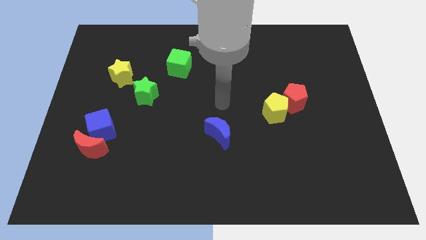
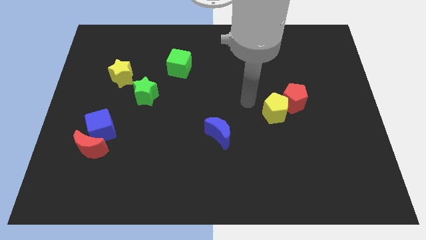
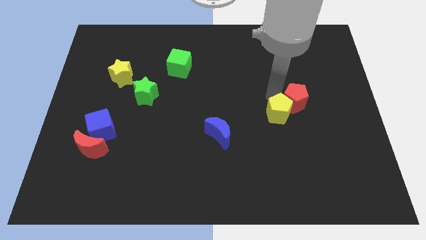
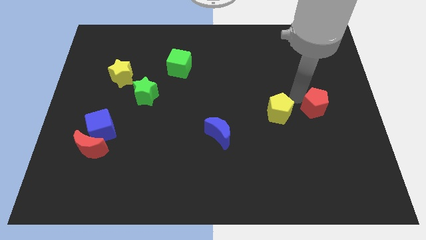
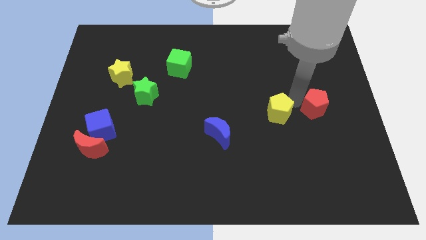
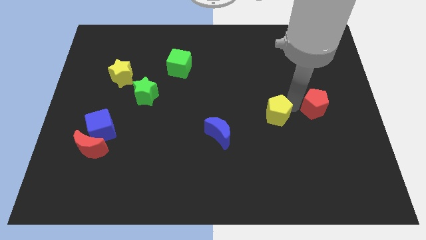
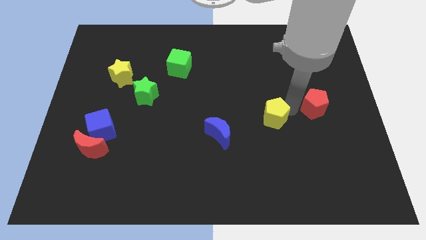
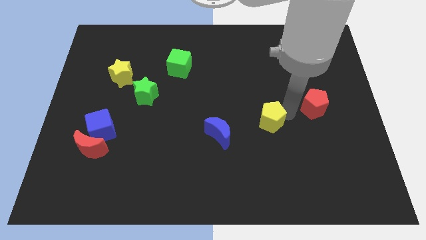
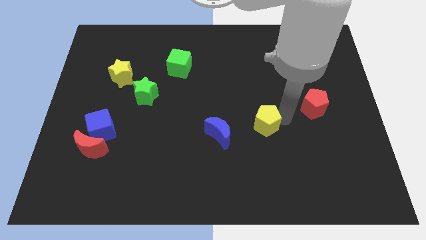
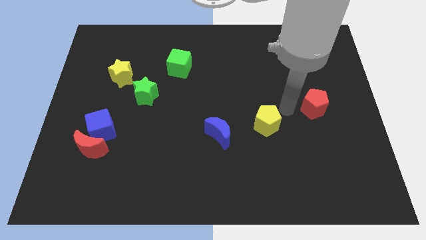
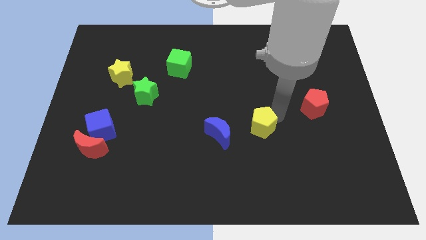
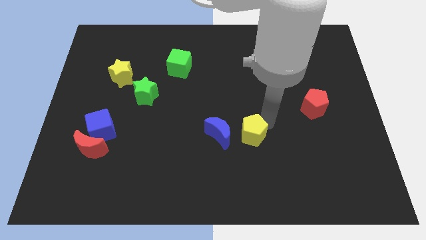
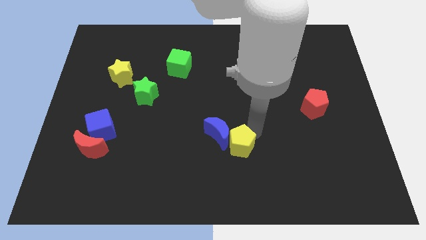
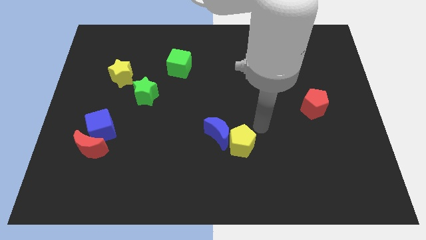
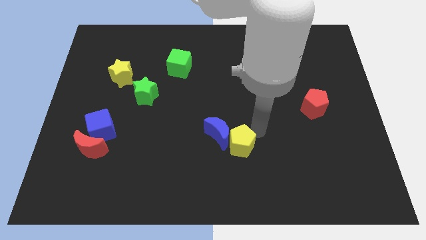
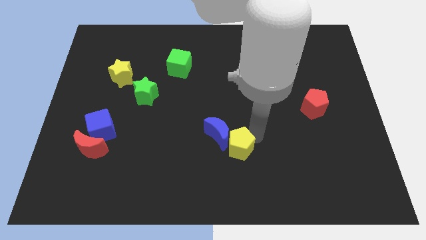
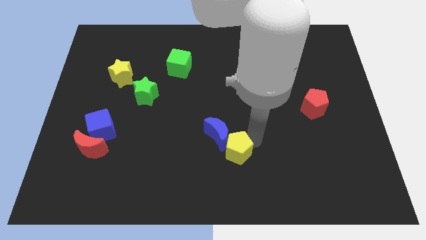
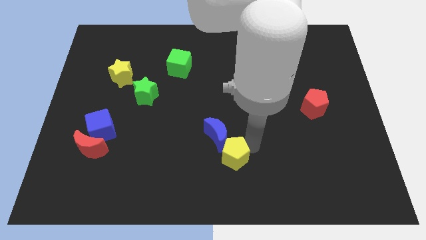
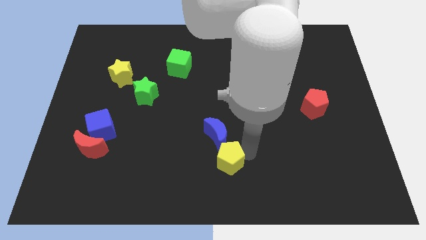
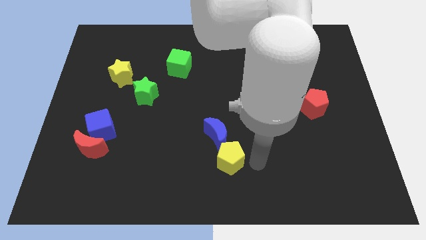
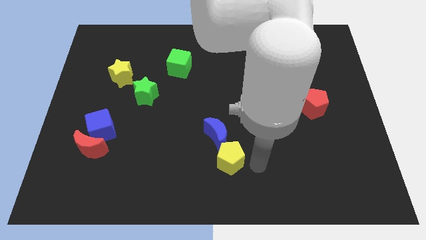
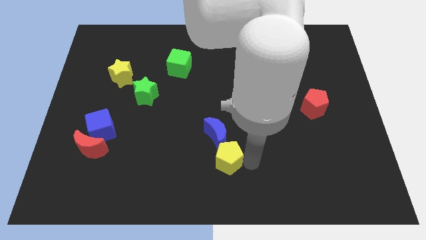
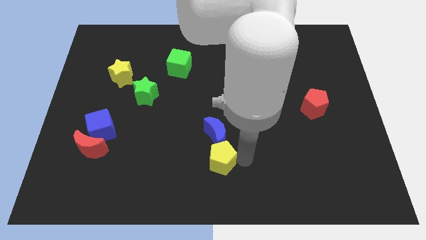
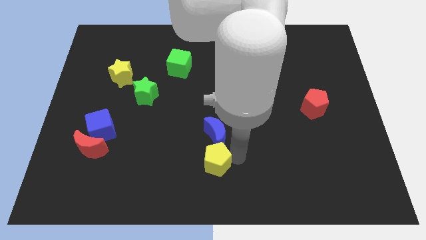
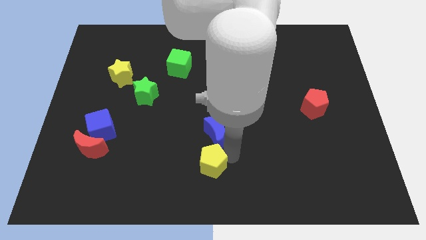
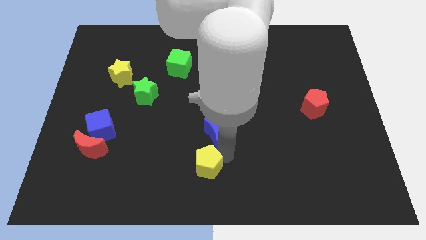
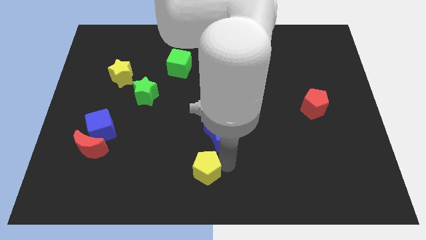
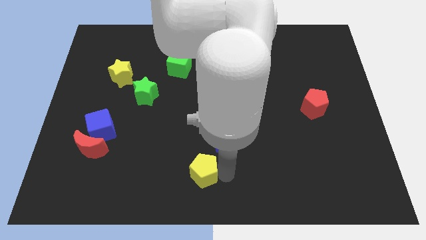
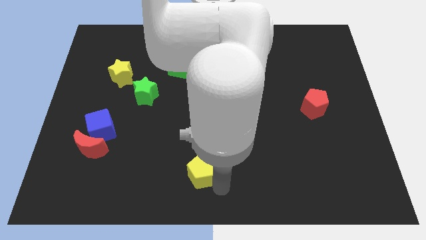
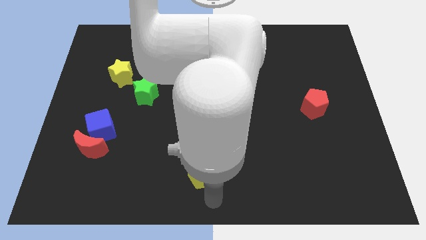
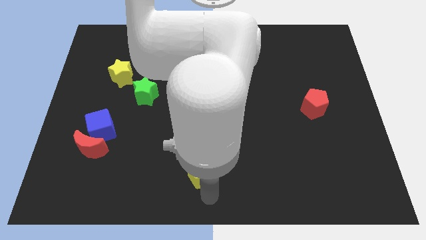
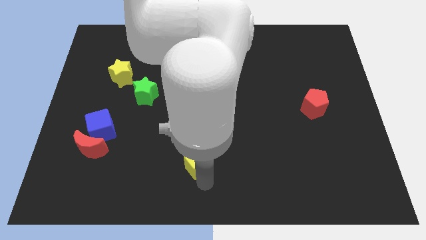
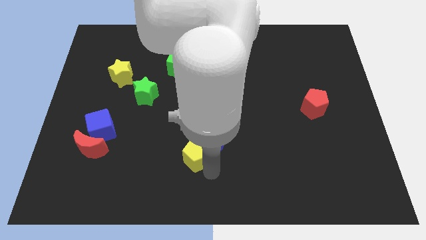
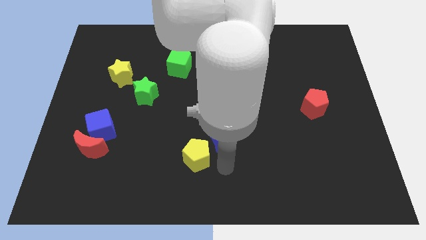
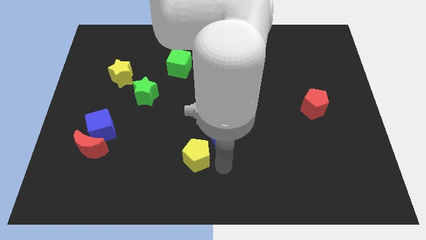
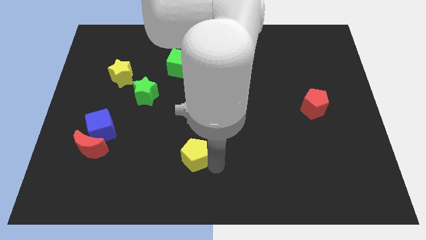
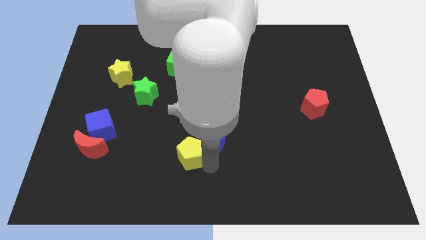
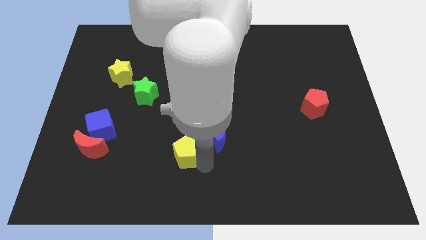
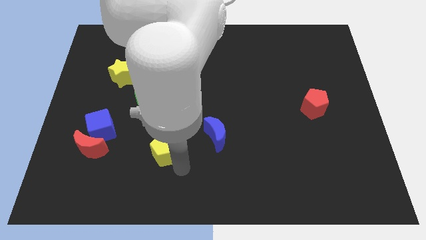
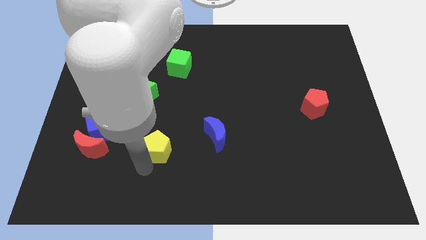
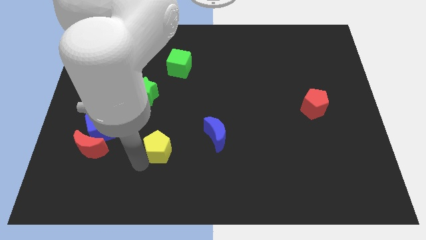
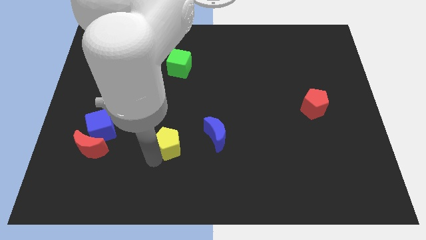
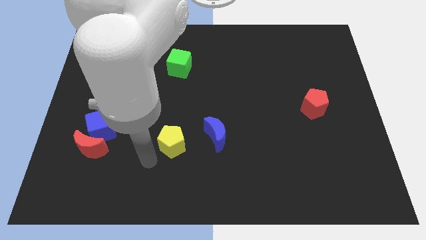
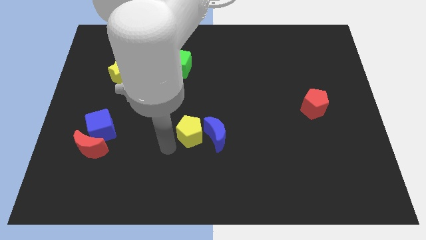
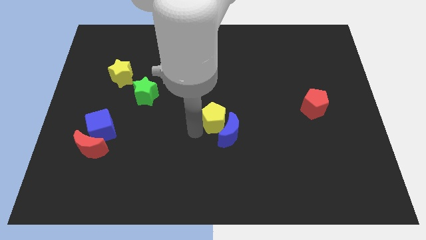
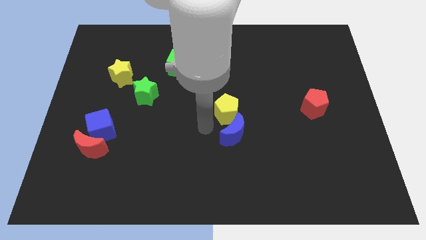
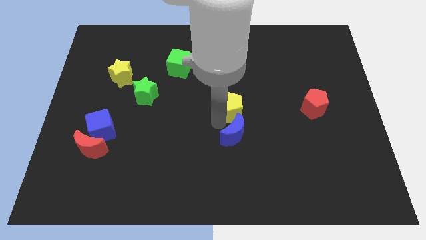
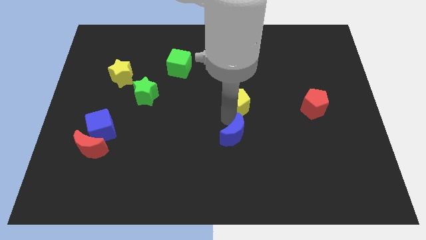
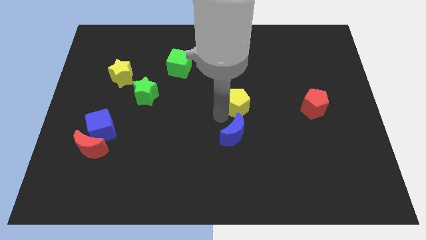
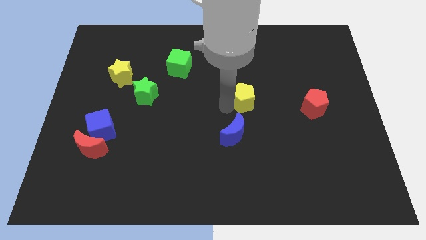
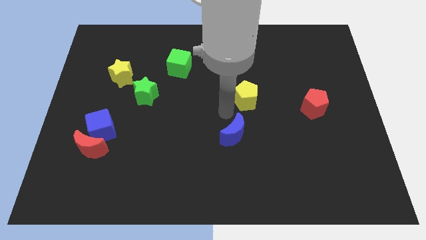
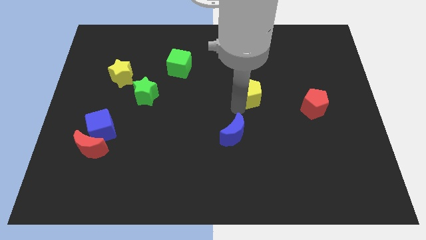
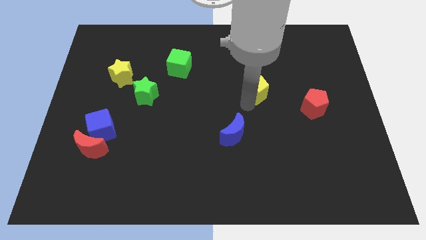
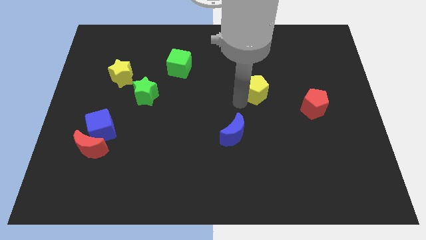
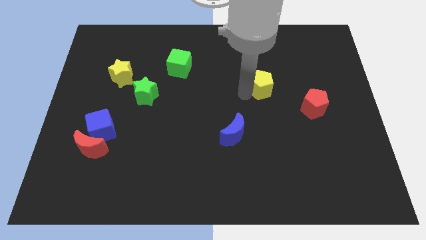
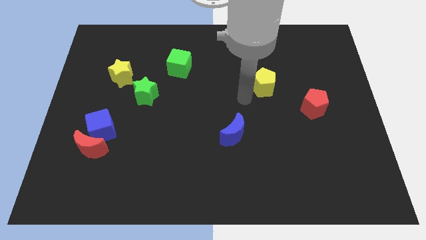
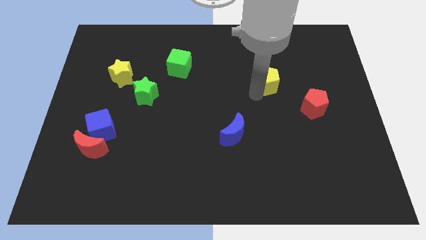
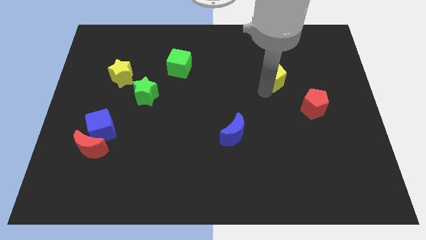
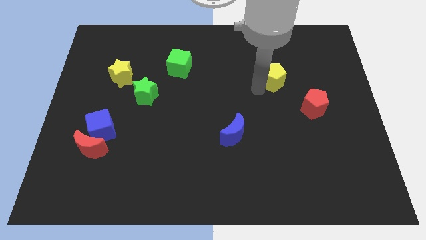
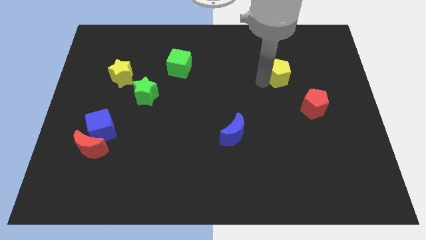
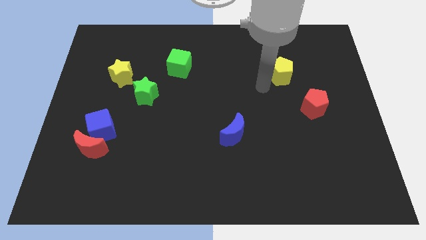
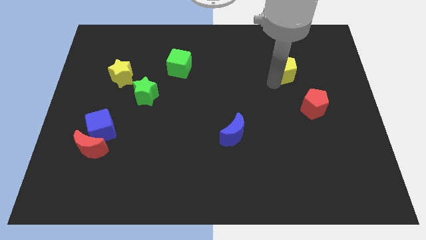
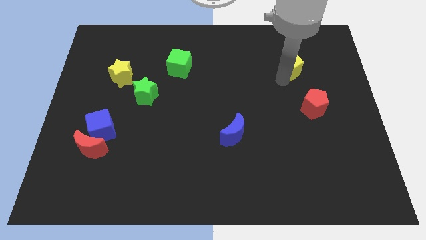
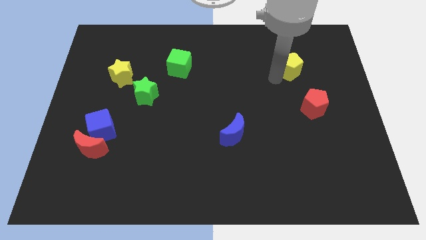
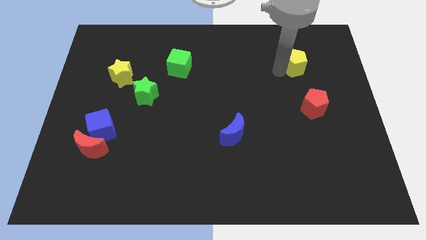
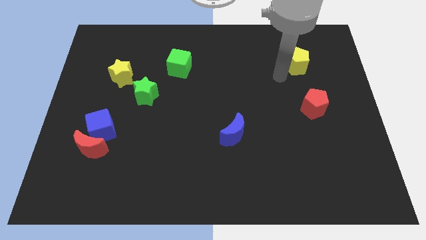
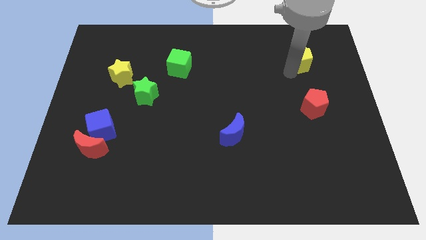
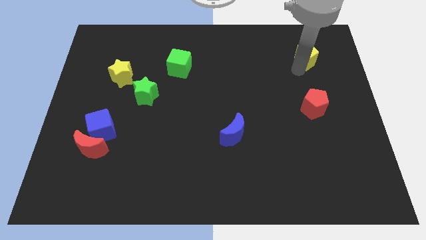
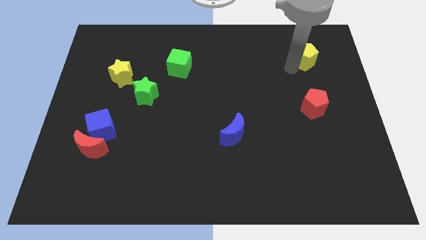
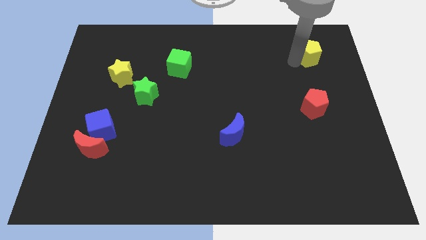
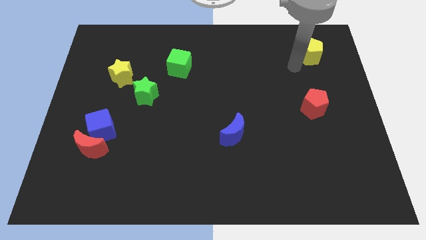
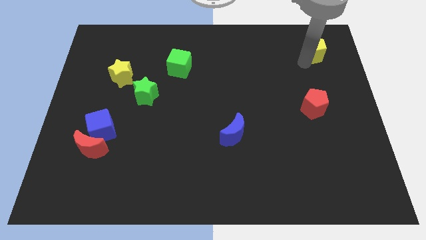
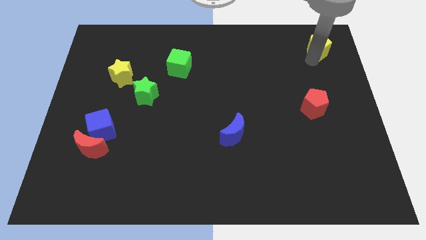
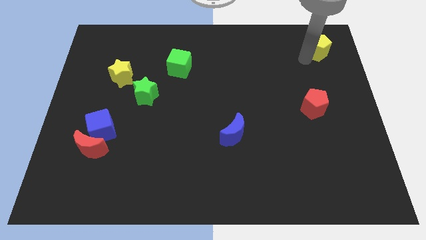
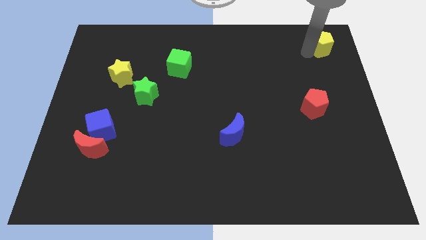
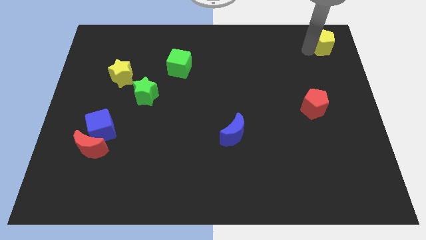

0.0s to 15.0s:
put the yellow pentagon to the upper right corner
